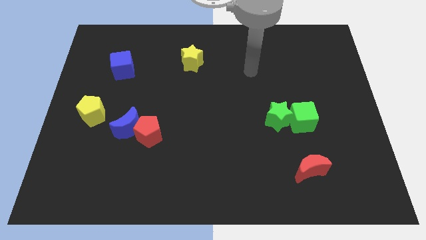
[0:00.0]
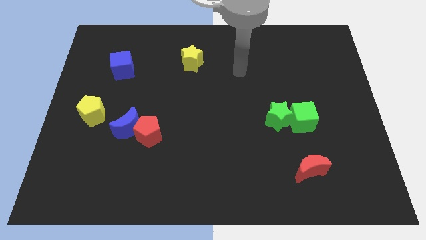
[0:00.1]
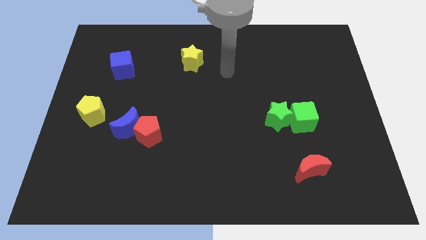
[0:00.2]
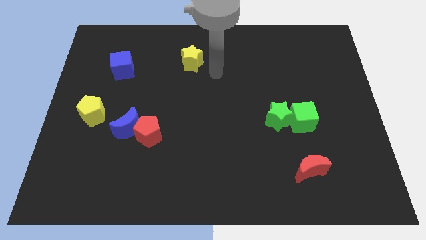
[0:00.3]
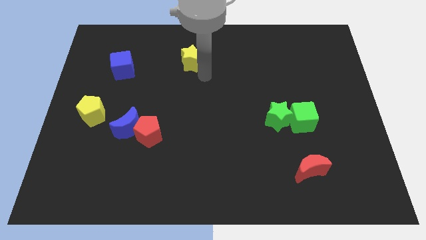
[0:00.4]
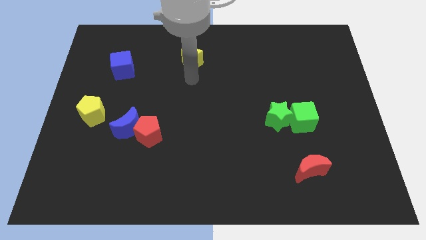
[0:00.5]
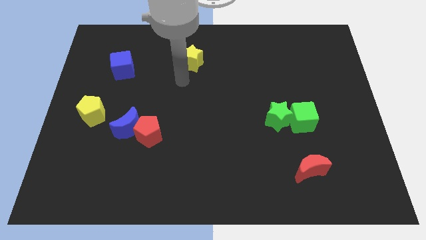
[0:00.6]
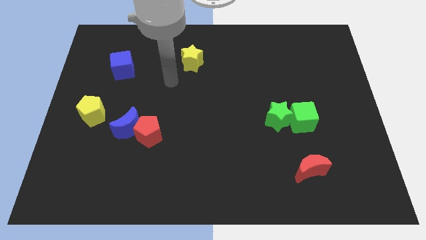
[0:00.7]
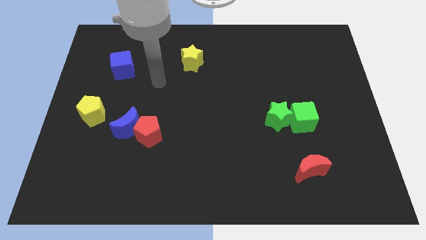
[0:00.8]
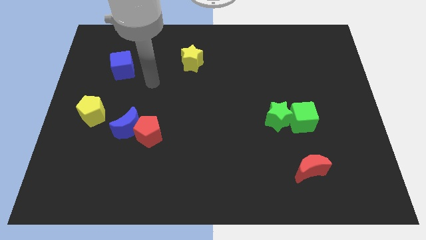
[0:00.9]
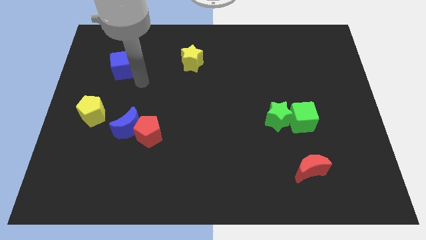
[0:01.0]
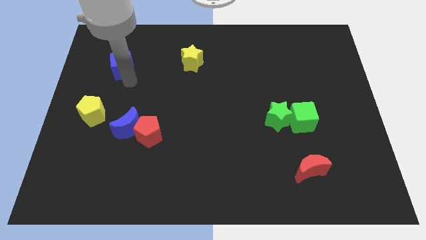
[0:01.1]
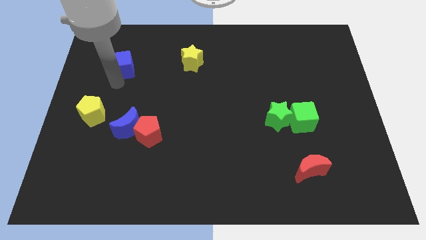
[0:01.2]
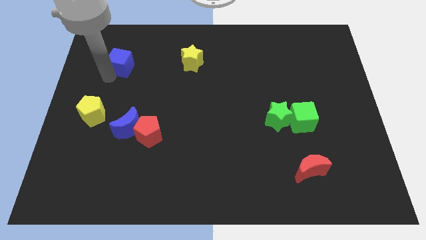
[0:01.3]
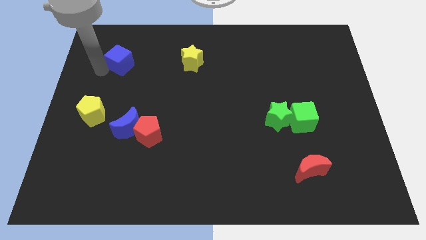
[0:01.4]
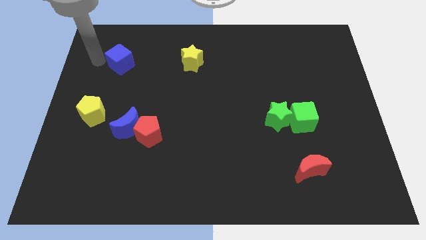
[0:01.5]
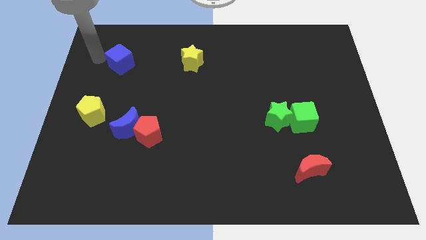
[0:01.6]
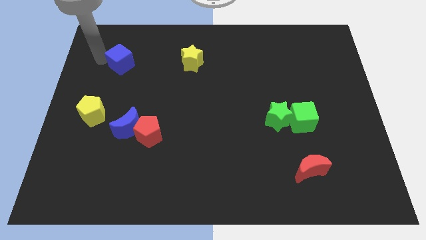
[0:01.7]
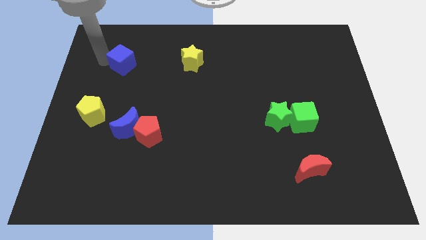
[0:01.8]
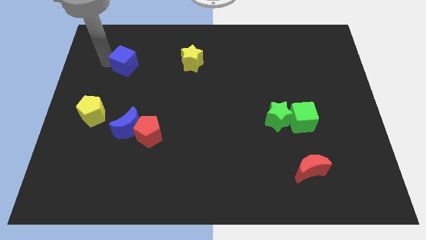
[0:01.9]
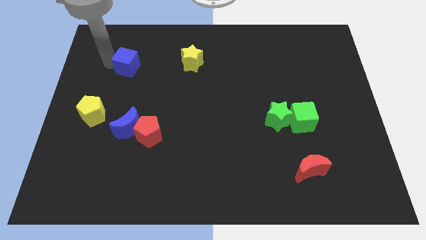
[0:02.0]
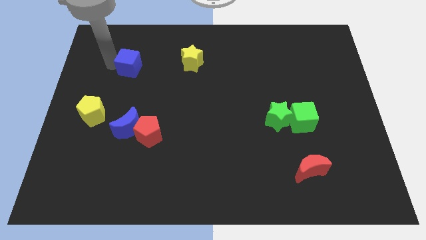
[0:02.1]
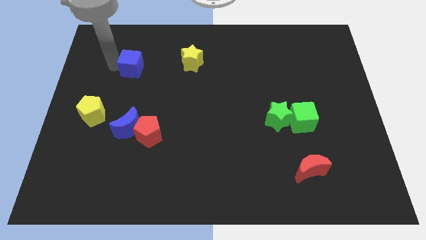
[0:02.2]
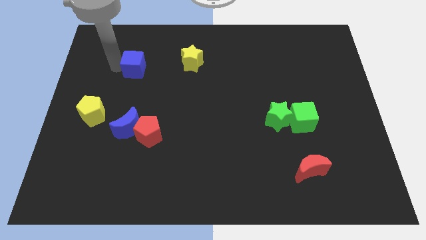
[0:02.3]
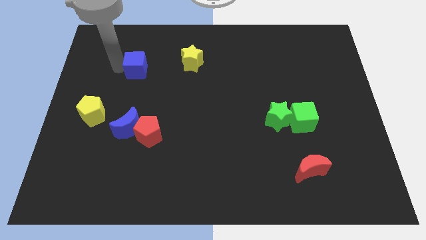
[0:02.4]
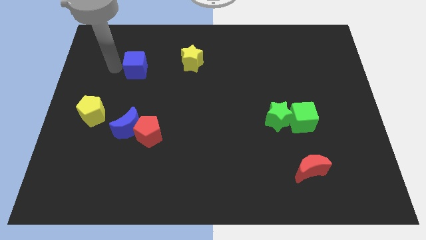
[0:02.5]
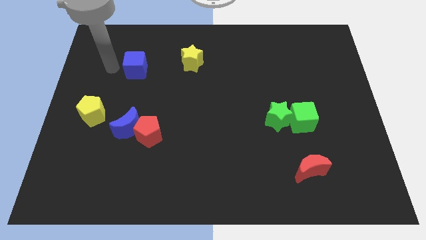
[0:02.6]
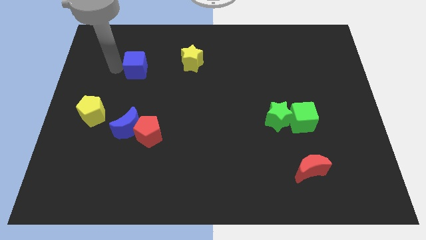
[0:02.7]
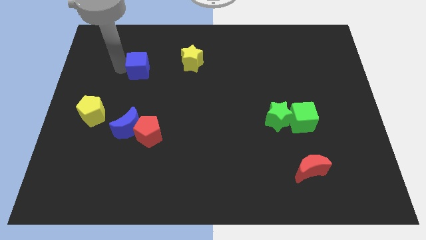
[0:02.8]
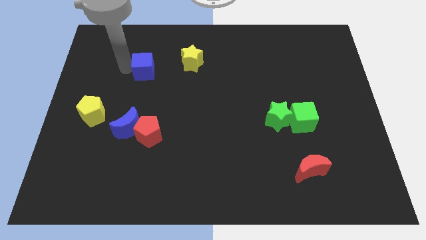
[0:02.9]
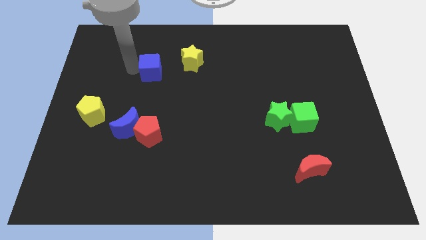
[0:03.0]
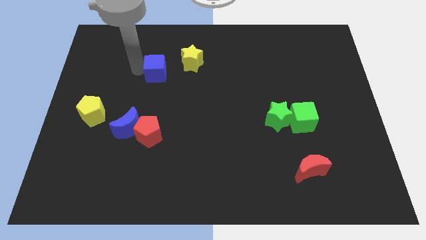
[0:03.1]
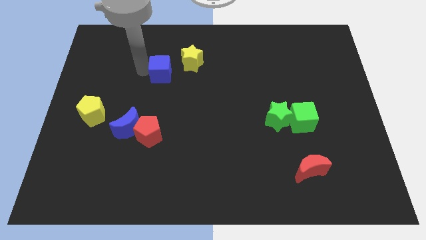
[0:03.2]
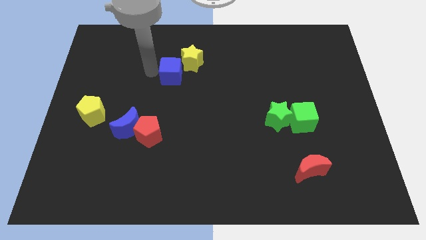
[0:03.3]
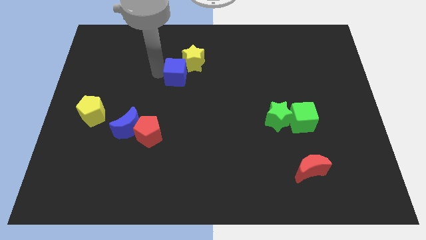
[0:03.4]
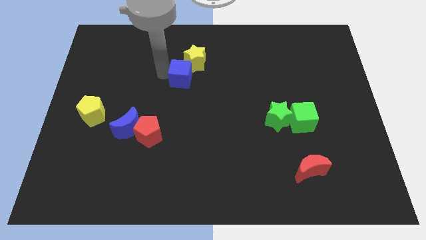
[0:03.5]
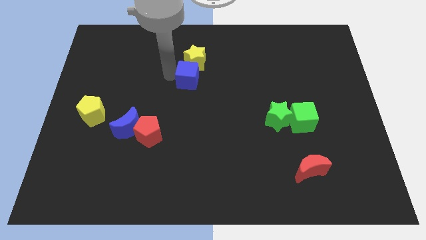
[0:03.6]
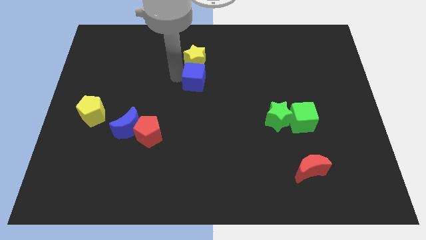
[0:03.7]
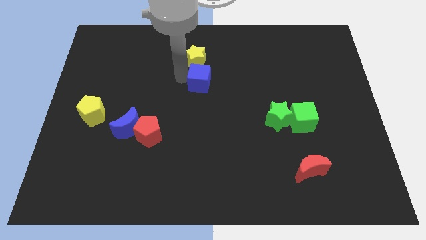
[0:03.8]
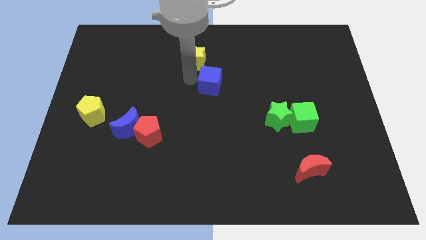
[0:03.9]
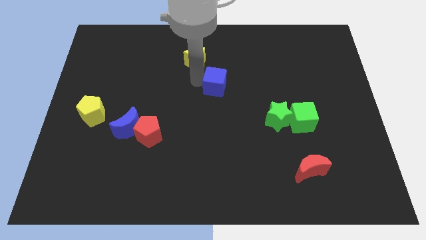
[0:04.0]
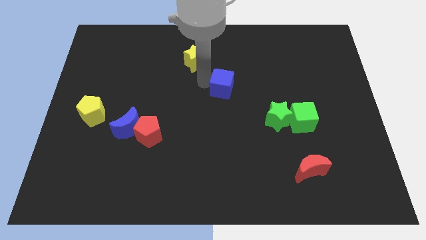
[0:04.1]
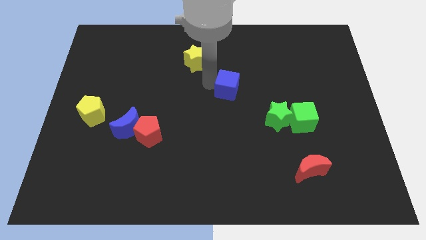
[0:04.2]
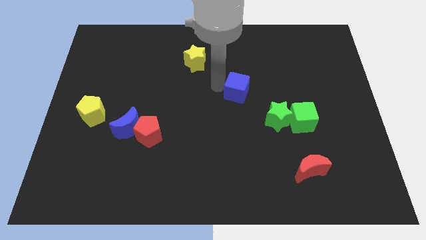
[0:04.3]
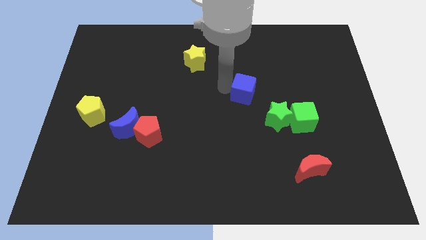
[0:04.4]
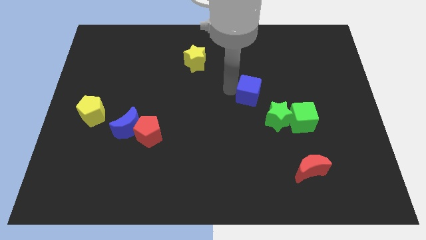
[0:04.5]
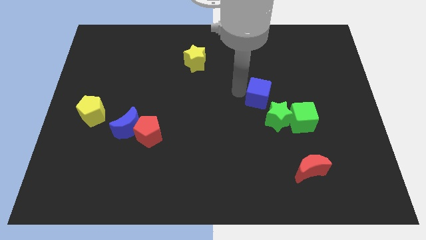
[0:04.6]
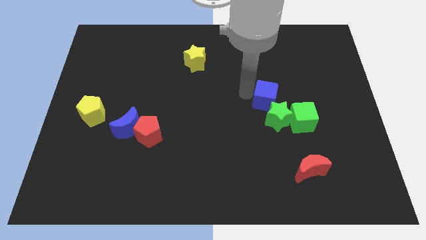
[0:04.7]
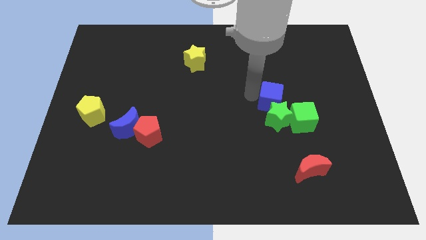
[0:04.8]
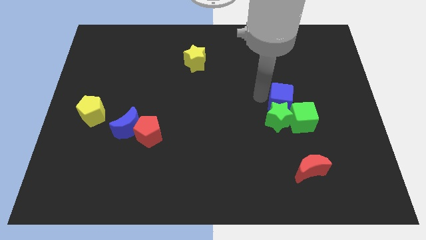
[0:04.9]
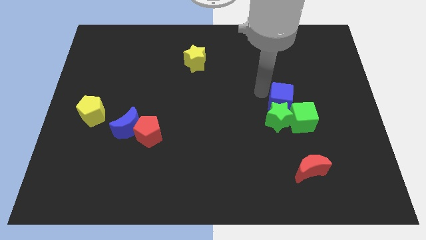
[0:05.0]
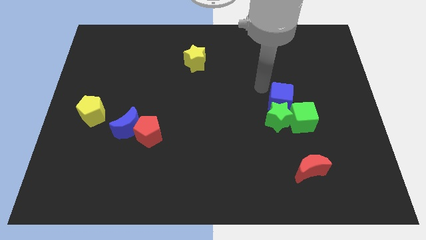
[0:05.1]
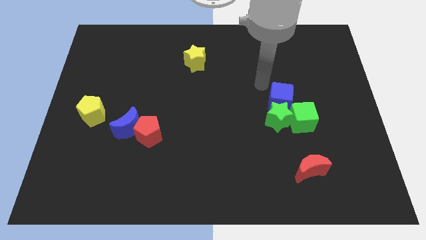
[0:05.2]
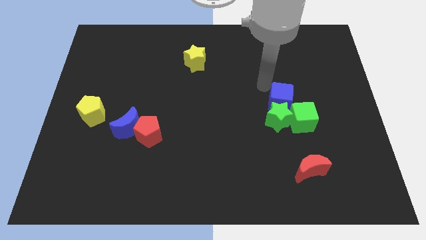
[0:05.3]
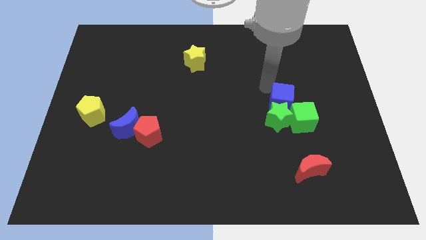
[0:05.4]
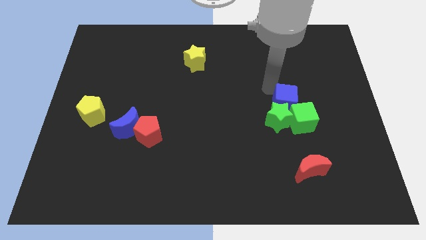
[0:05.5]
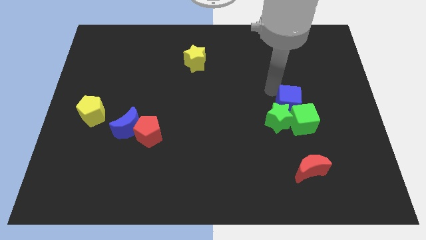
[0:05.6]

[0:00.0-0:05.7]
put the blue cube towards the green cube

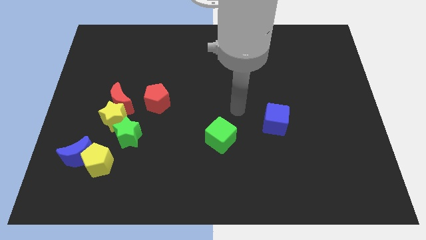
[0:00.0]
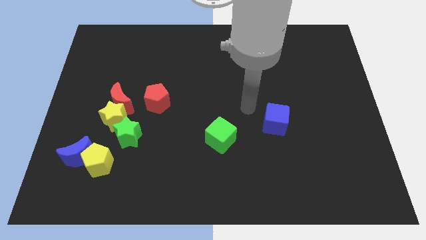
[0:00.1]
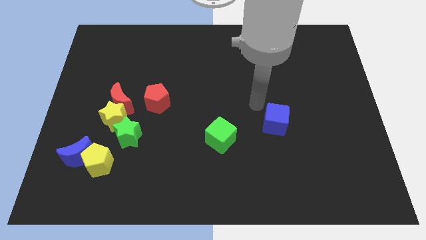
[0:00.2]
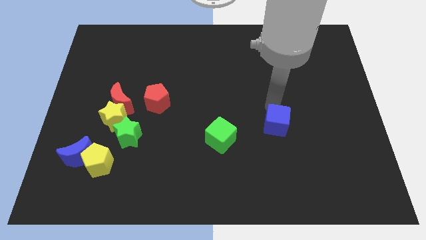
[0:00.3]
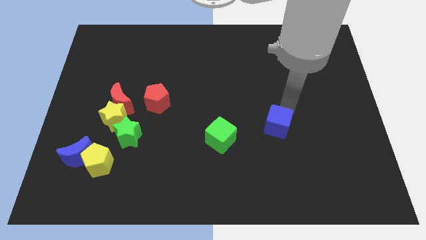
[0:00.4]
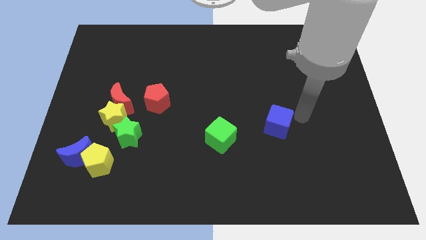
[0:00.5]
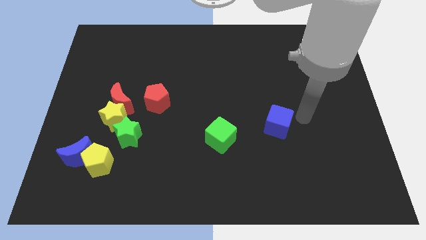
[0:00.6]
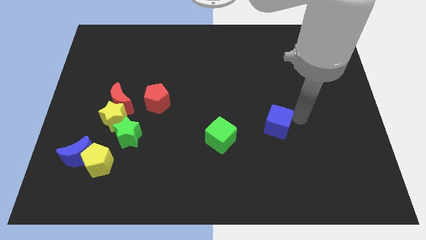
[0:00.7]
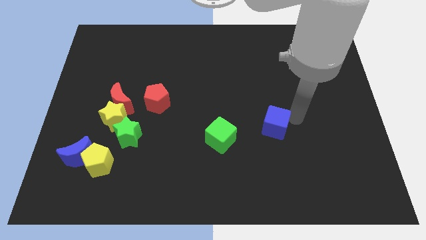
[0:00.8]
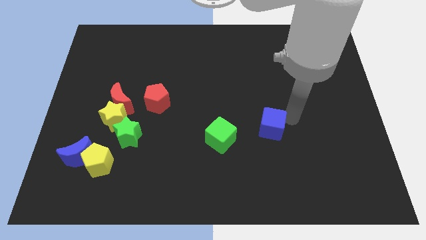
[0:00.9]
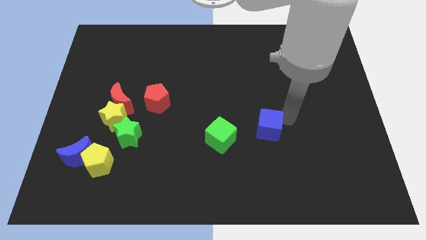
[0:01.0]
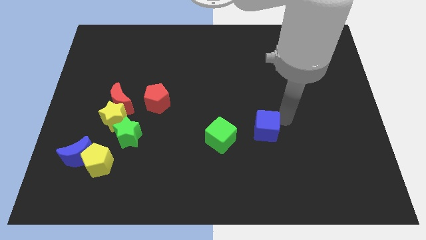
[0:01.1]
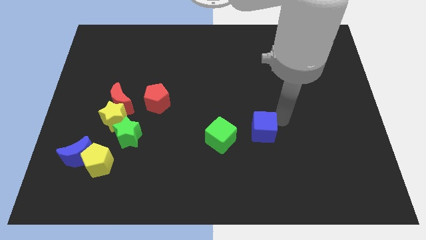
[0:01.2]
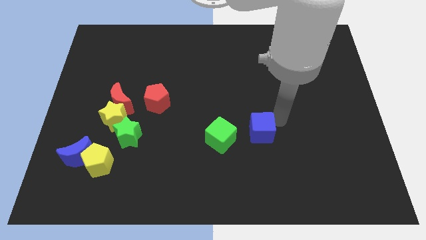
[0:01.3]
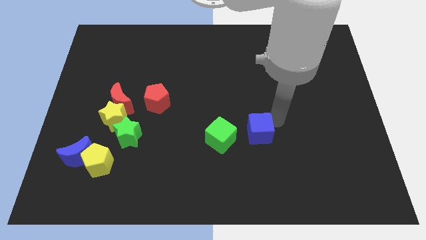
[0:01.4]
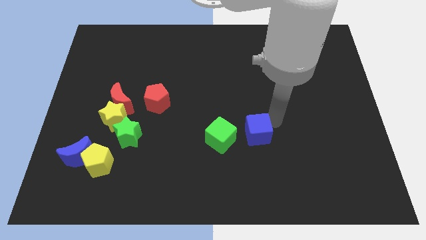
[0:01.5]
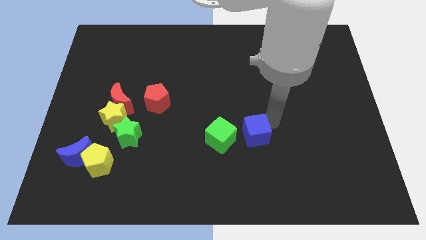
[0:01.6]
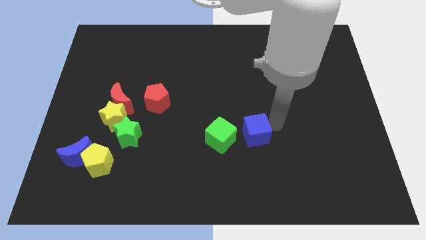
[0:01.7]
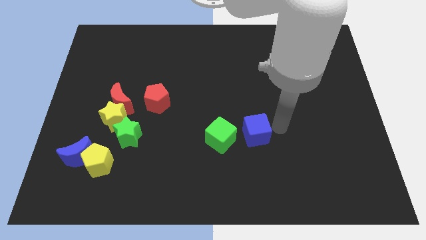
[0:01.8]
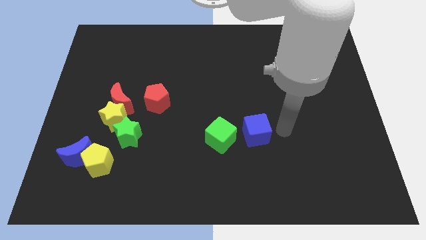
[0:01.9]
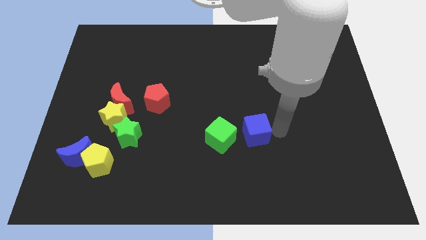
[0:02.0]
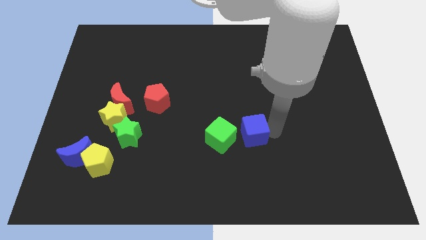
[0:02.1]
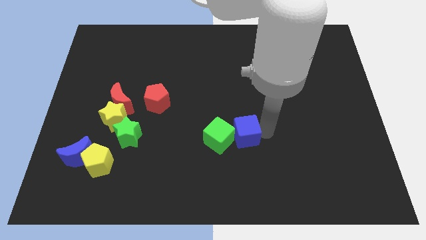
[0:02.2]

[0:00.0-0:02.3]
slide the blue cube towards the green cube
